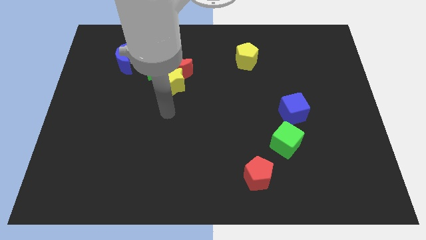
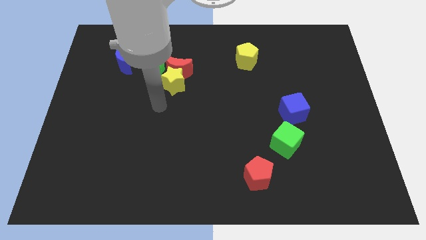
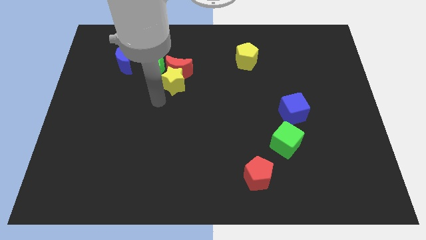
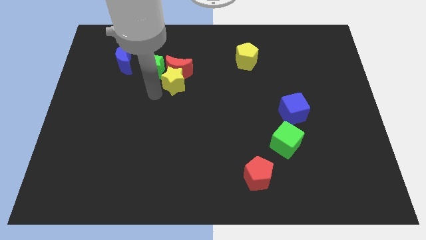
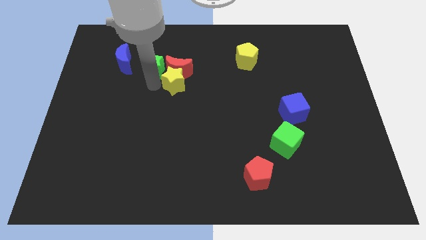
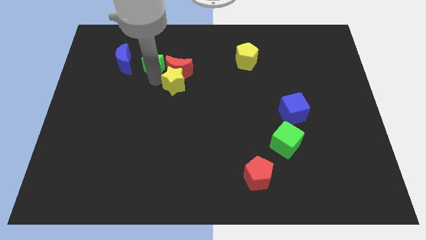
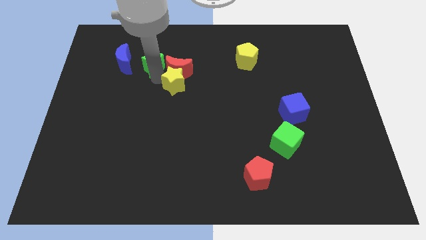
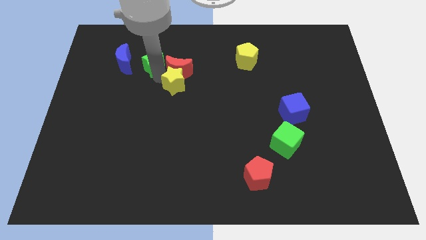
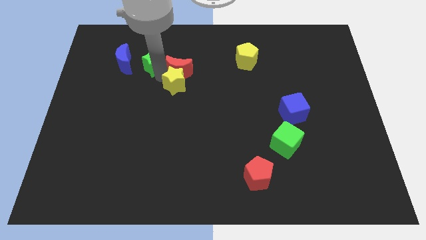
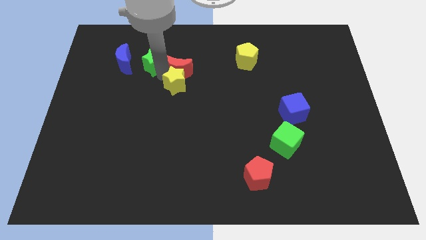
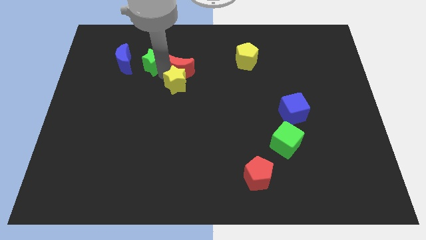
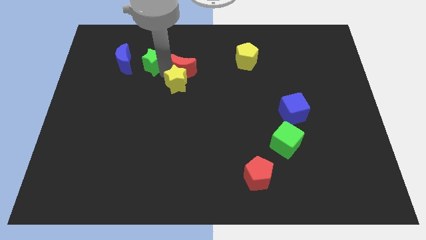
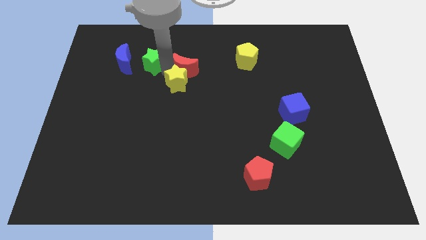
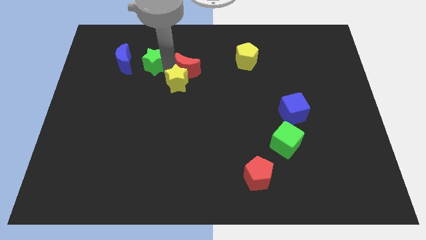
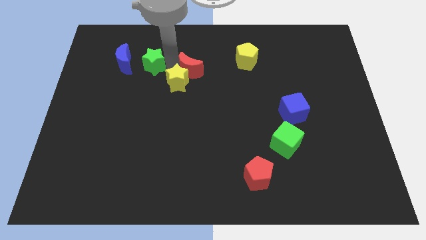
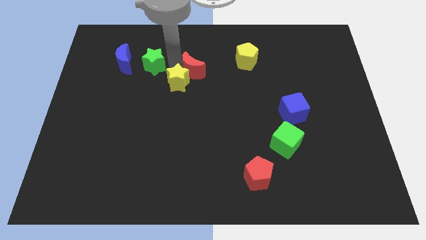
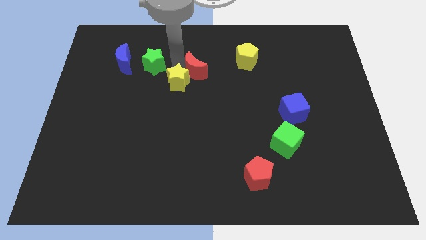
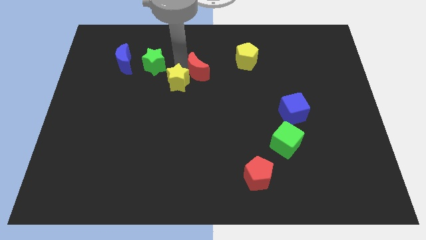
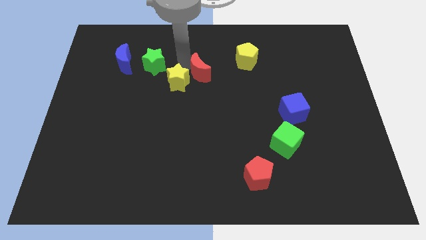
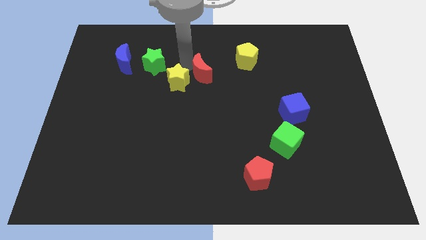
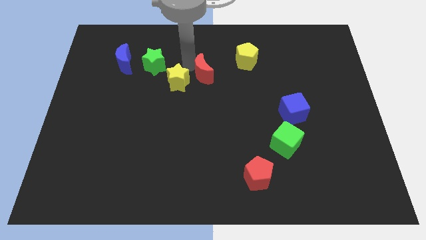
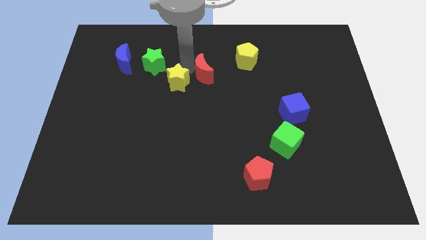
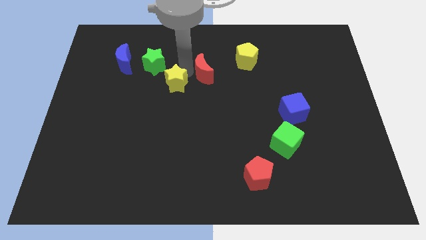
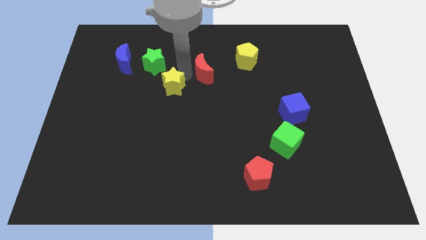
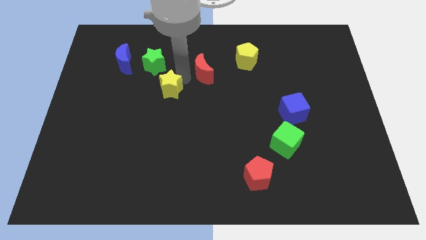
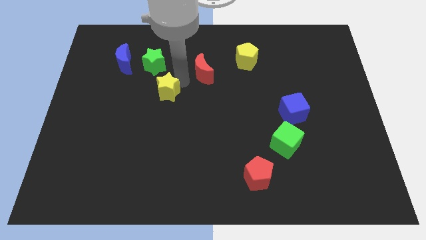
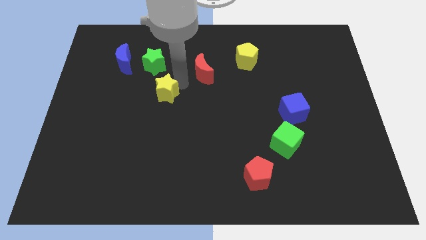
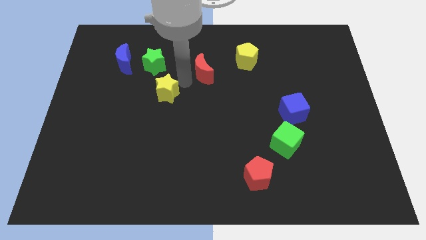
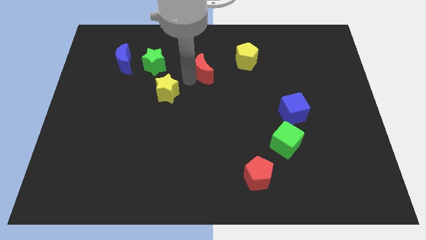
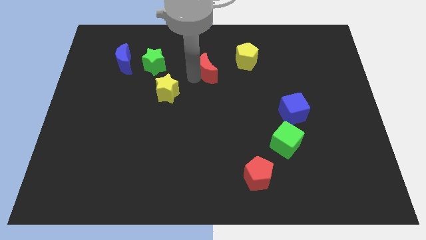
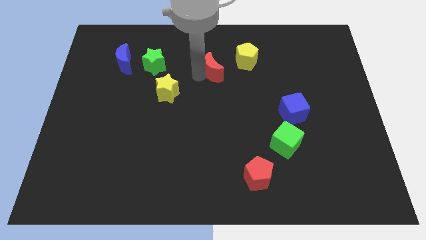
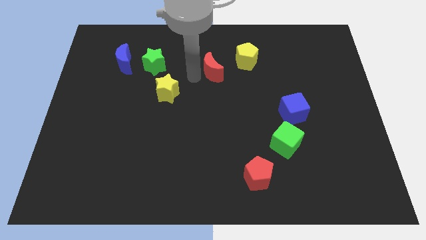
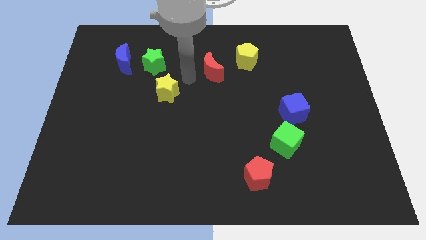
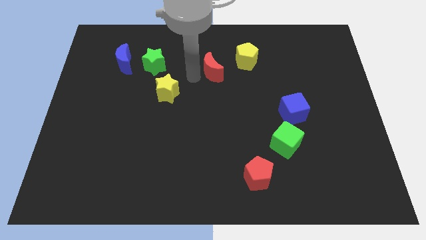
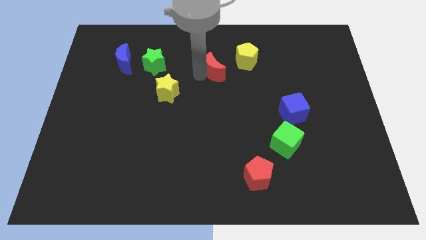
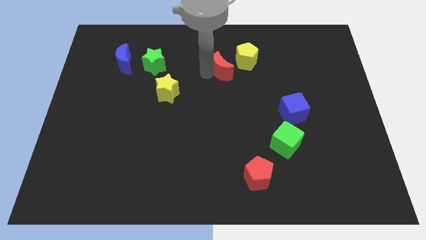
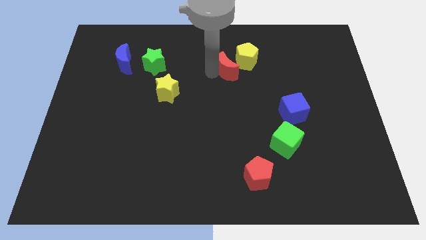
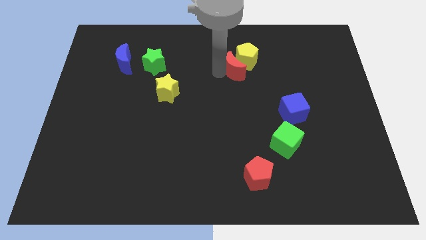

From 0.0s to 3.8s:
put the red moon close to the yellow pentagon

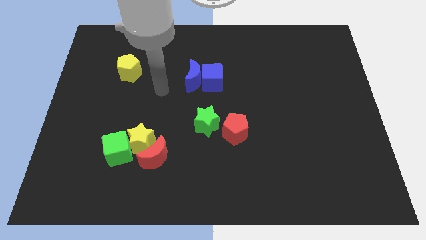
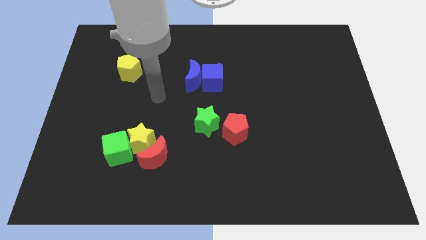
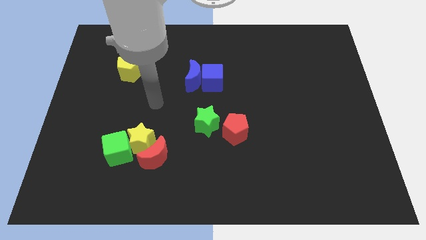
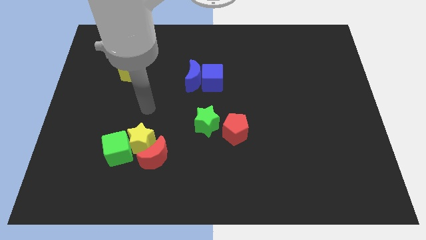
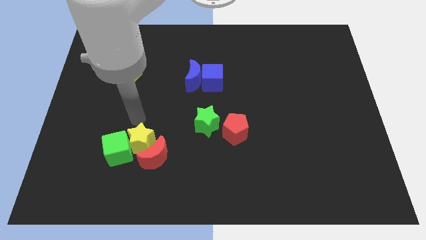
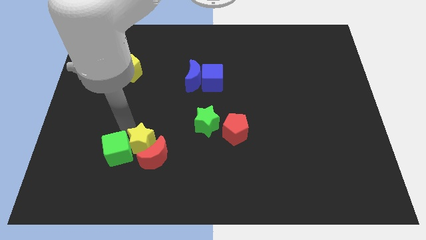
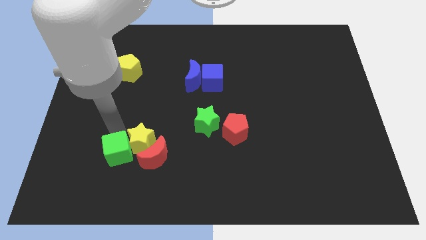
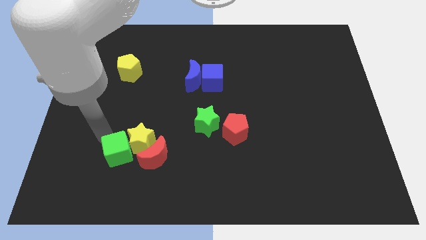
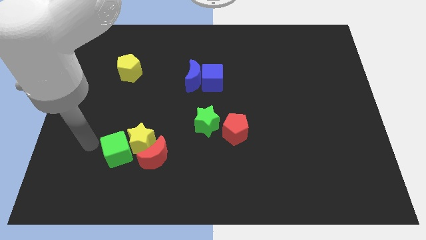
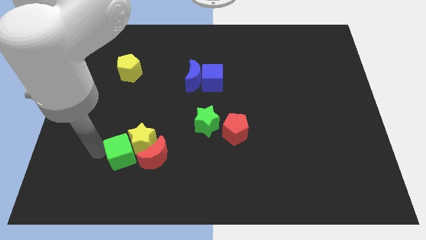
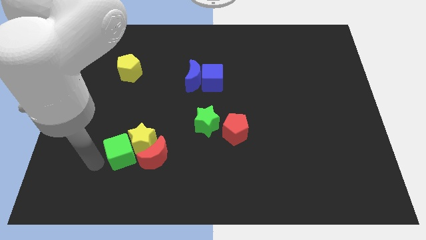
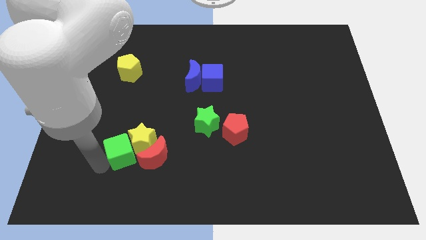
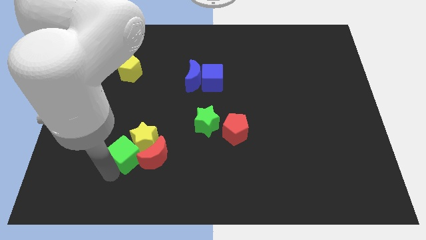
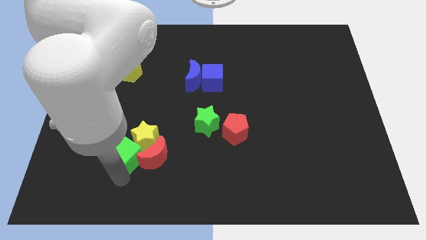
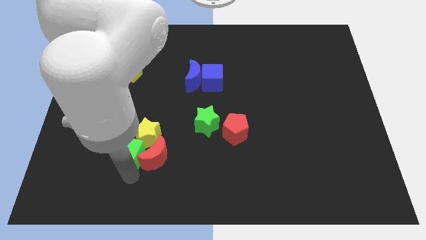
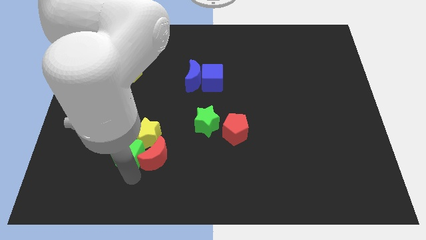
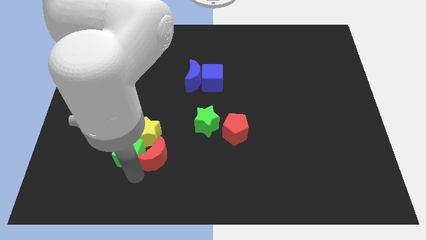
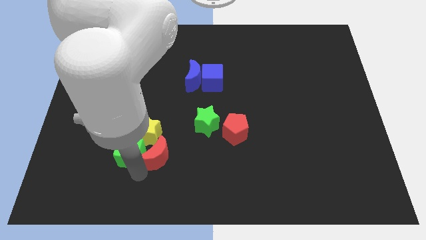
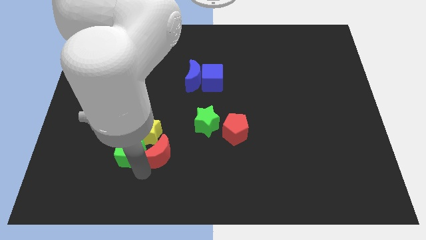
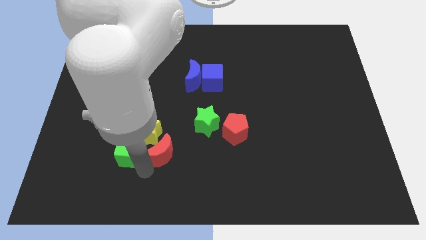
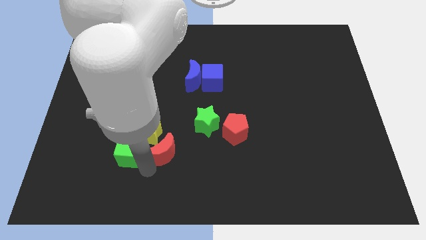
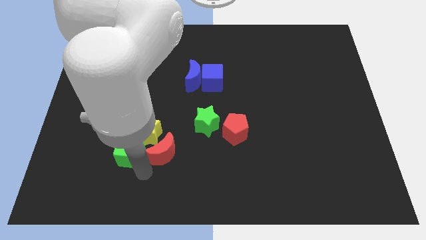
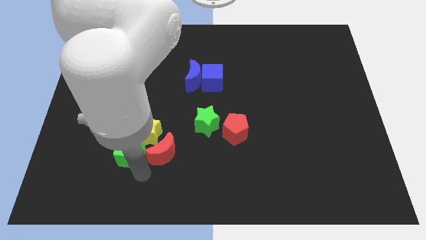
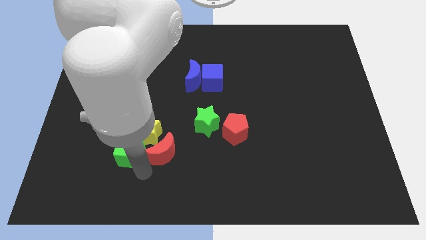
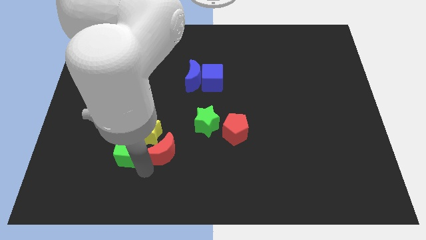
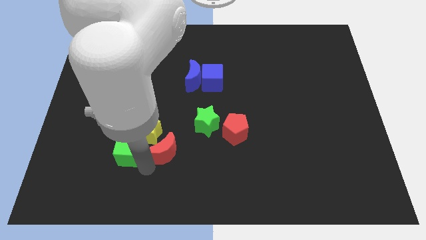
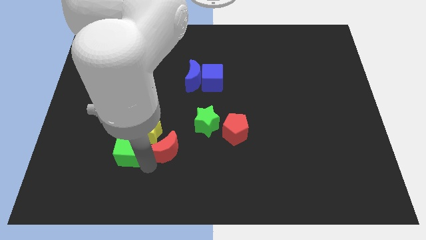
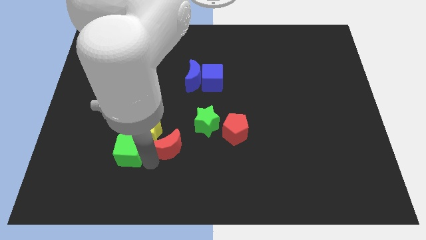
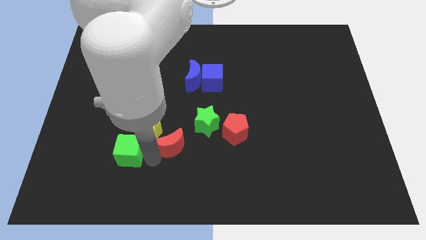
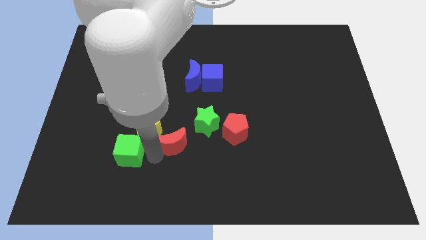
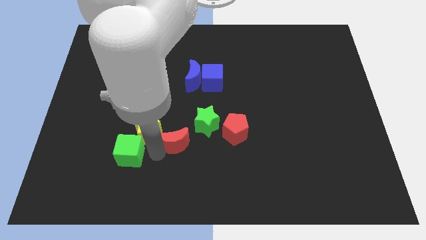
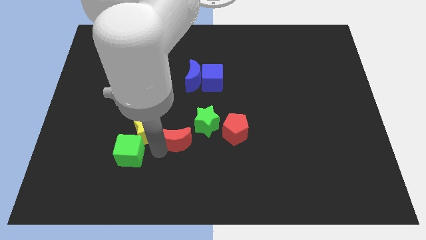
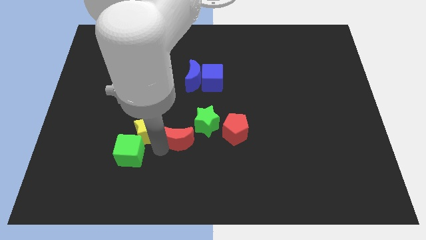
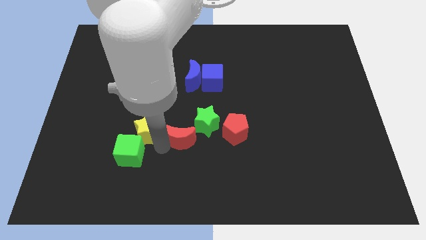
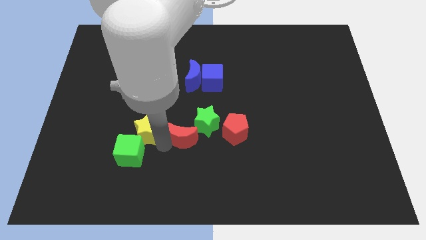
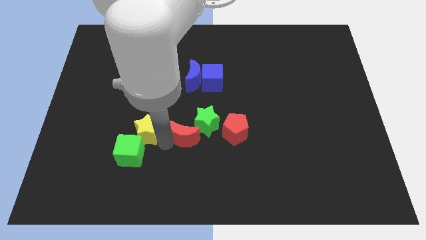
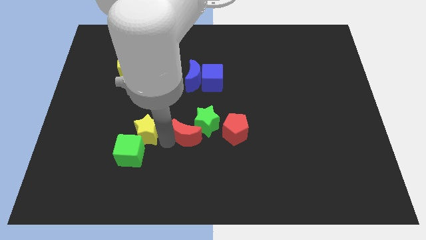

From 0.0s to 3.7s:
move the red moon next to the green star

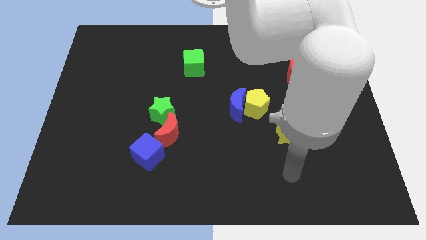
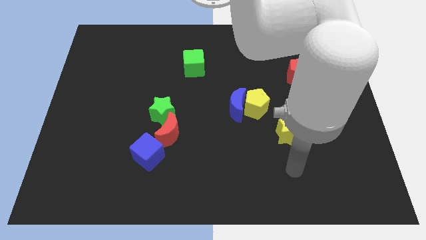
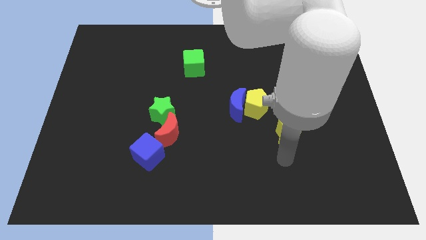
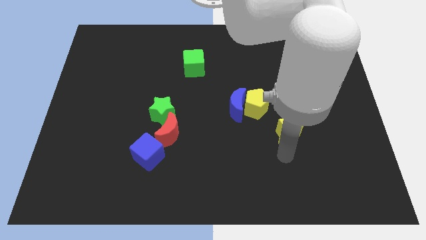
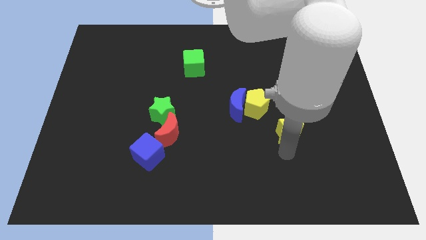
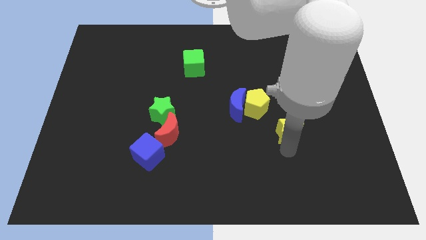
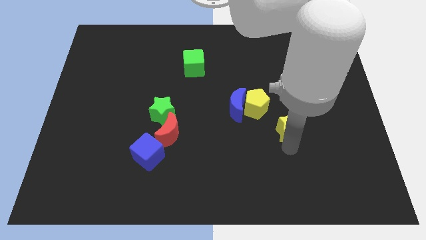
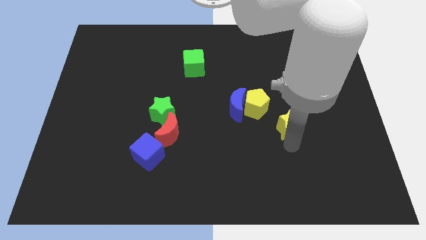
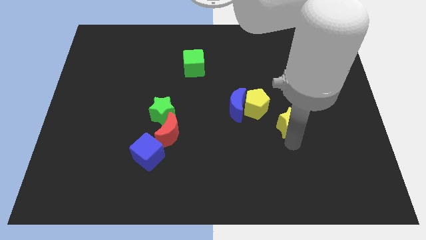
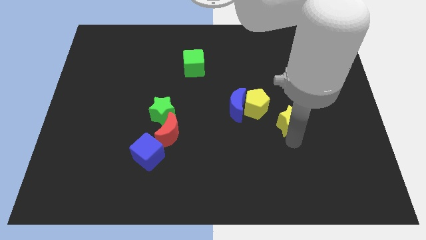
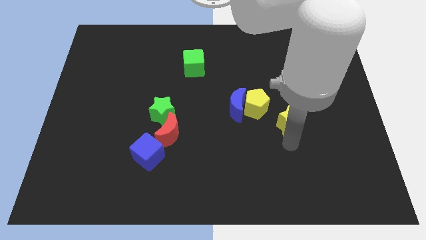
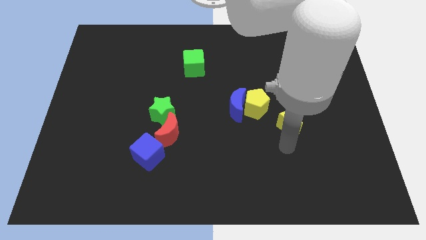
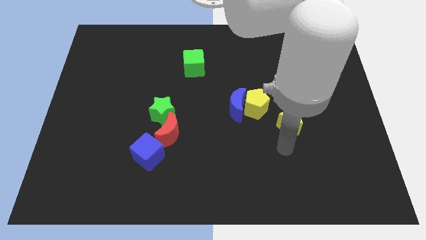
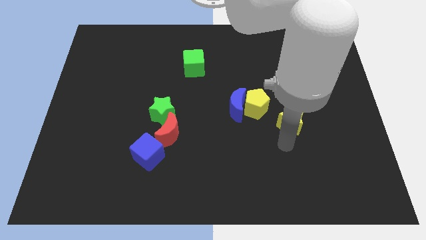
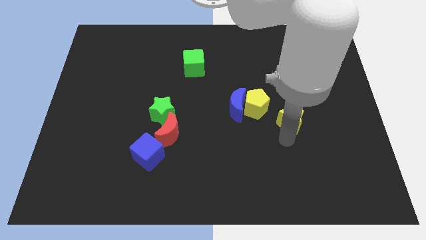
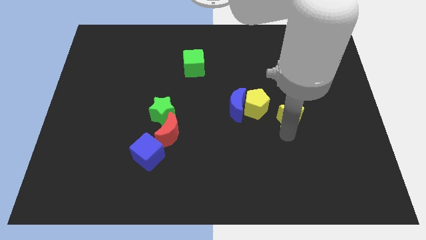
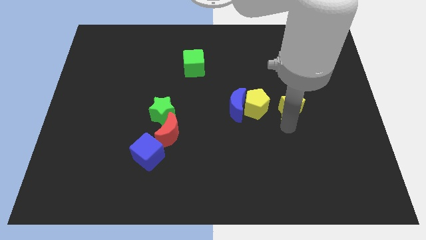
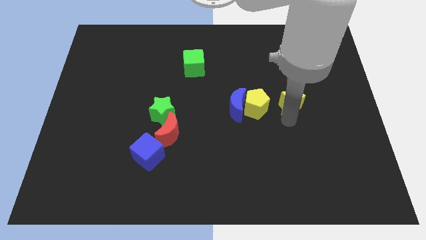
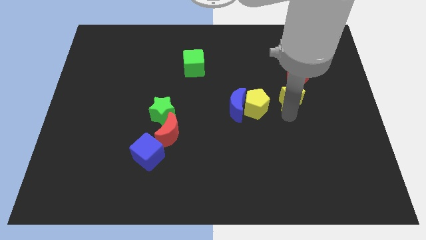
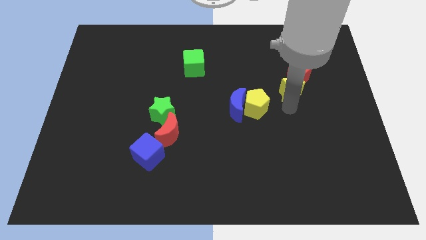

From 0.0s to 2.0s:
move the yellow star to the red pentagon
